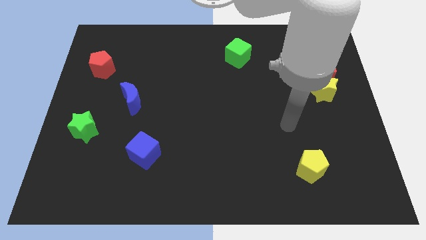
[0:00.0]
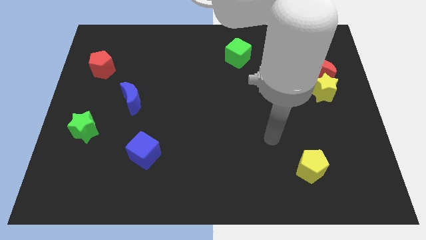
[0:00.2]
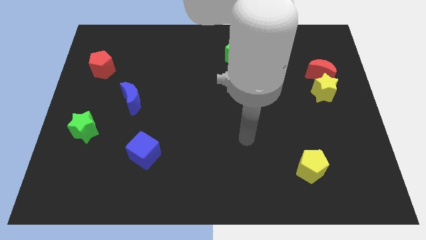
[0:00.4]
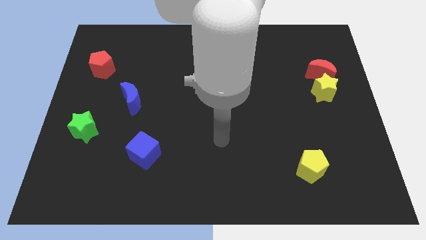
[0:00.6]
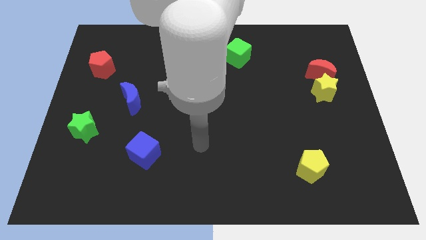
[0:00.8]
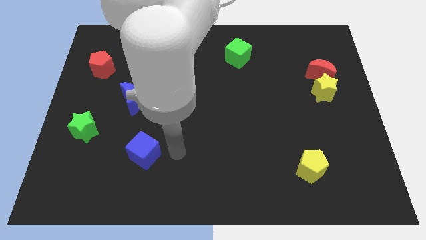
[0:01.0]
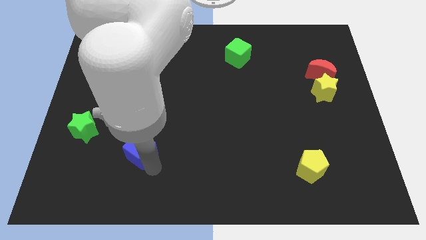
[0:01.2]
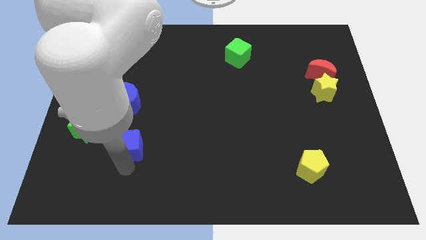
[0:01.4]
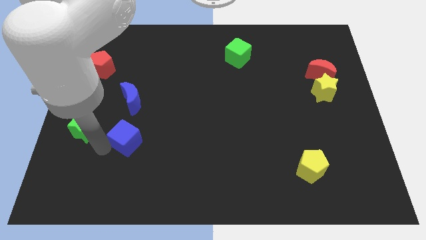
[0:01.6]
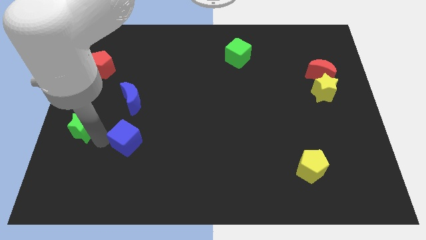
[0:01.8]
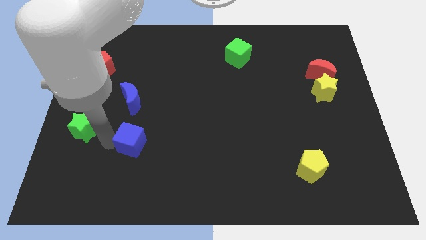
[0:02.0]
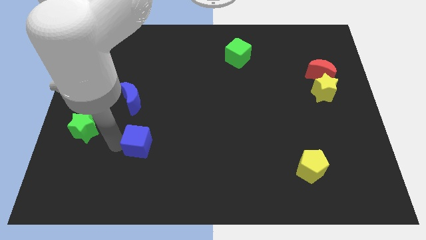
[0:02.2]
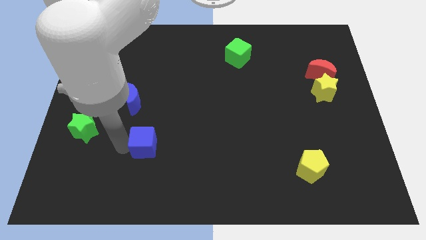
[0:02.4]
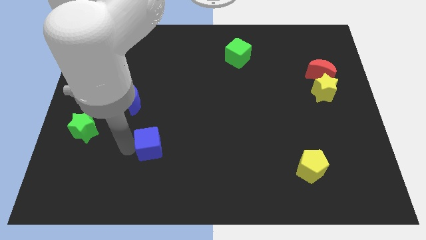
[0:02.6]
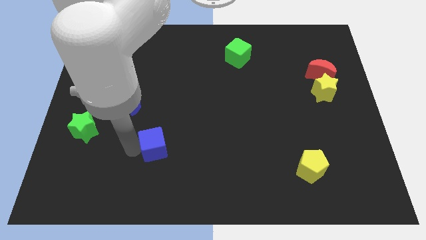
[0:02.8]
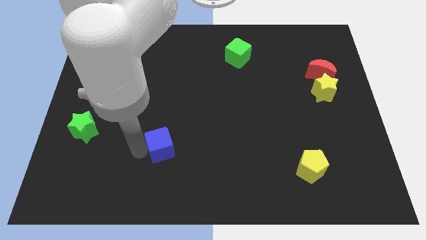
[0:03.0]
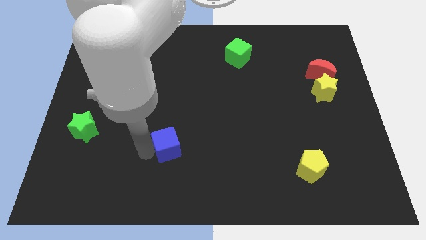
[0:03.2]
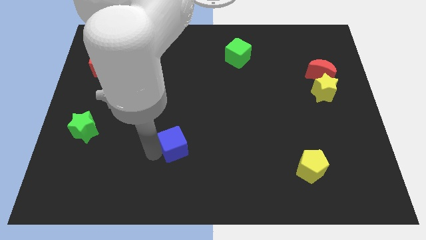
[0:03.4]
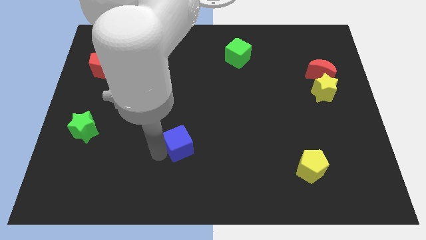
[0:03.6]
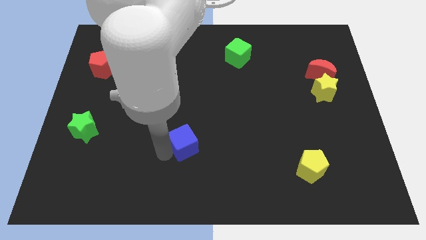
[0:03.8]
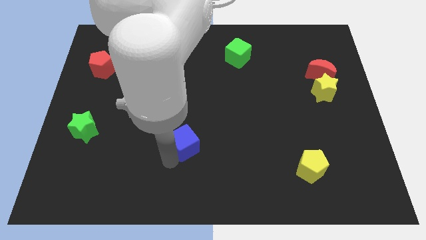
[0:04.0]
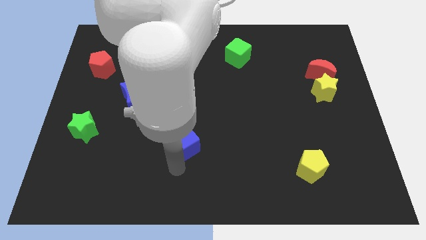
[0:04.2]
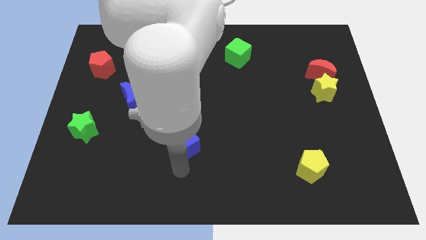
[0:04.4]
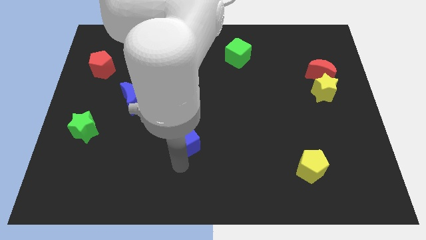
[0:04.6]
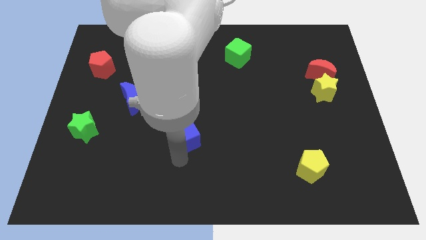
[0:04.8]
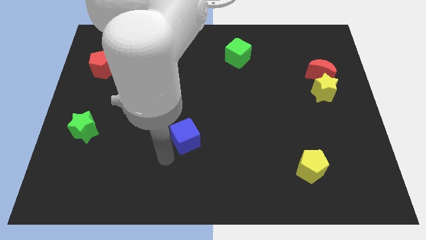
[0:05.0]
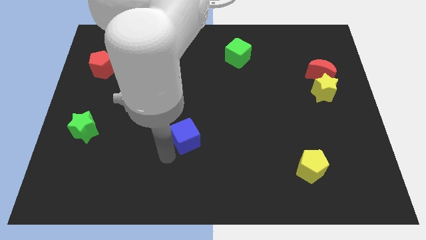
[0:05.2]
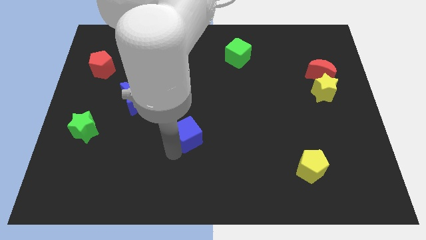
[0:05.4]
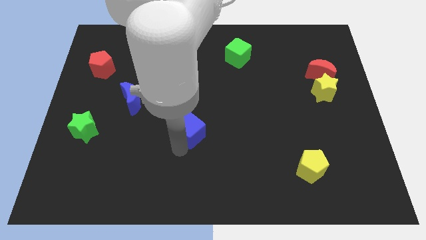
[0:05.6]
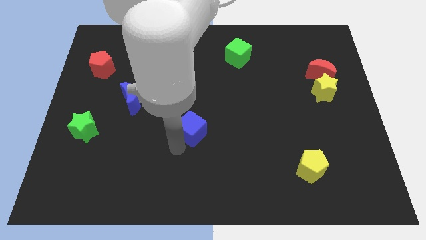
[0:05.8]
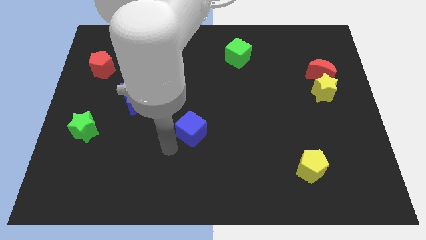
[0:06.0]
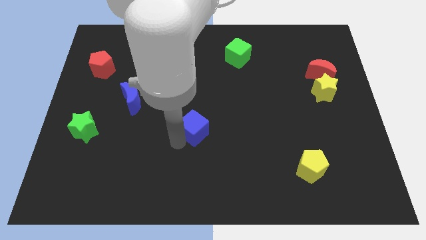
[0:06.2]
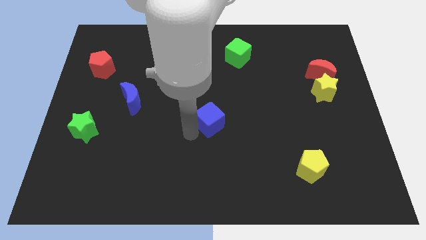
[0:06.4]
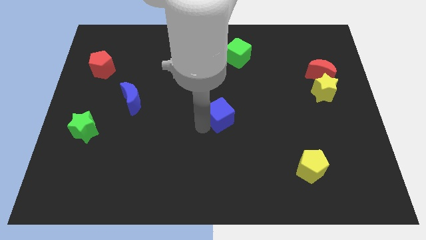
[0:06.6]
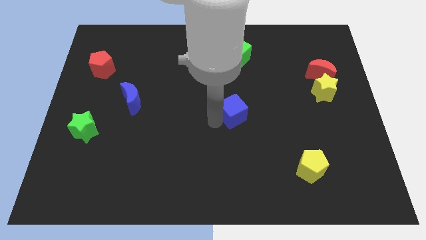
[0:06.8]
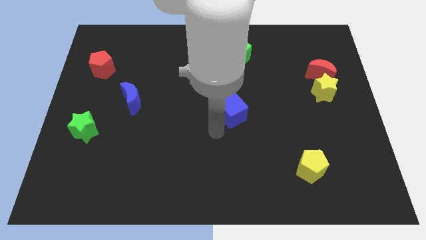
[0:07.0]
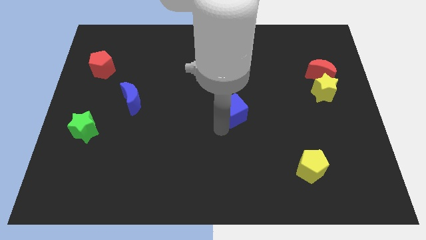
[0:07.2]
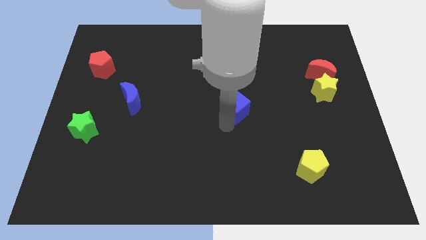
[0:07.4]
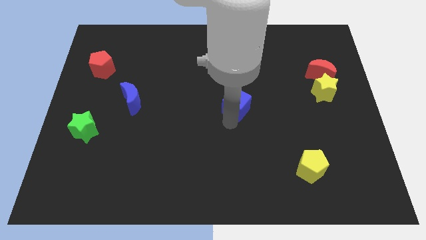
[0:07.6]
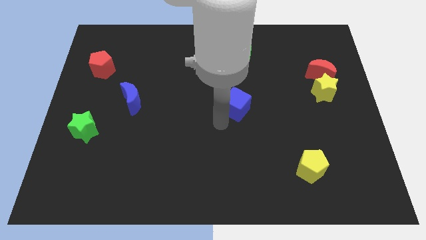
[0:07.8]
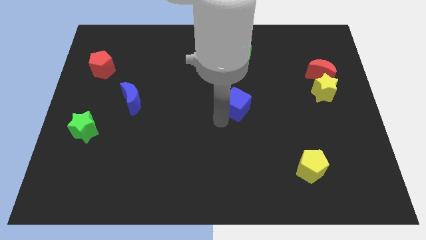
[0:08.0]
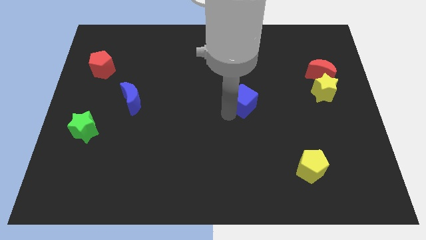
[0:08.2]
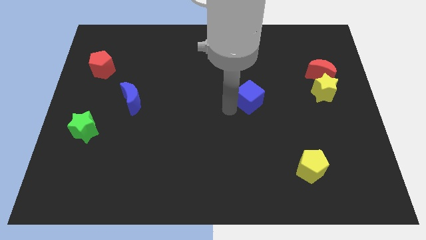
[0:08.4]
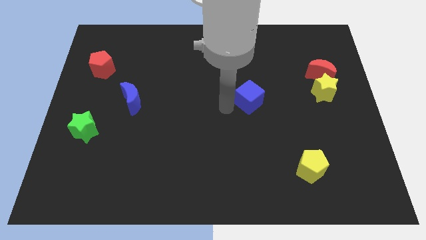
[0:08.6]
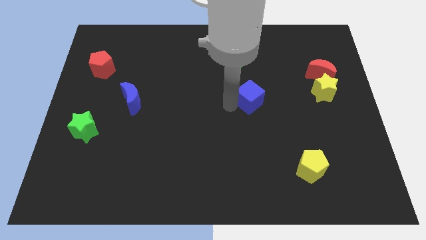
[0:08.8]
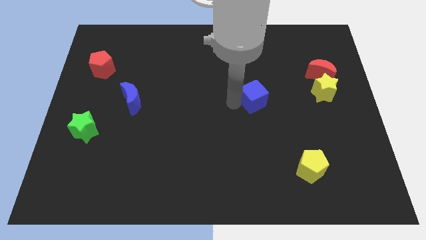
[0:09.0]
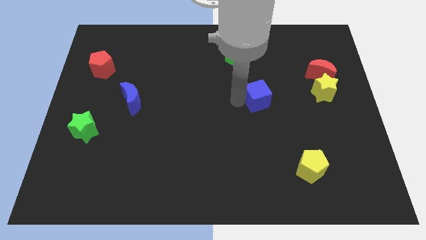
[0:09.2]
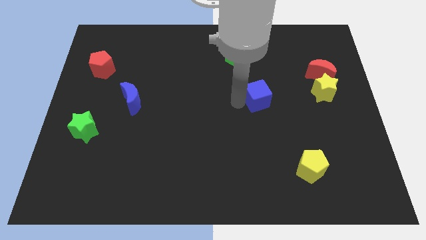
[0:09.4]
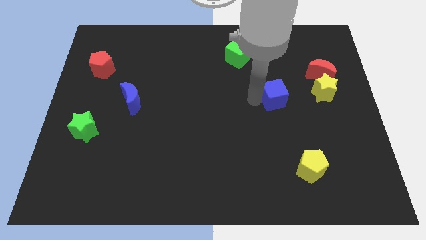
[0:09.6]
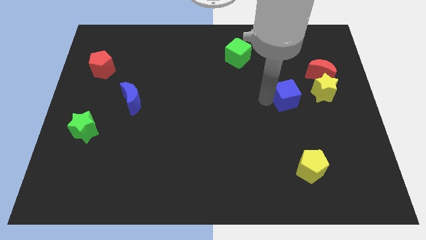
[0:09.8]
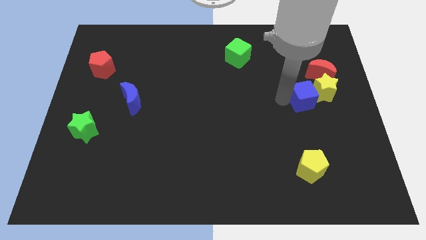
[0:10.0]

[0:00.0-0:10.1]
slide the blue cube next to the yellow star

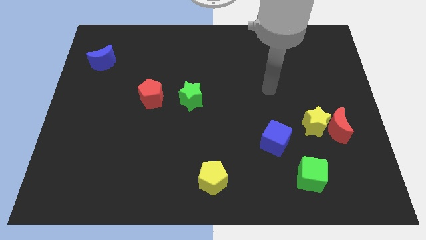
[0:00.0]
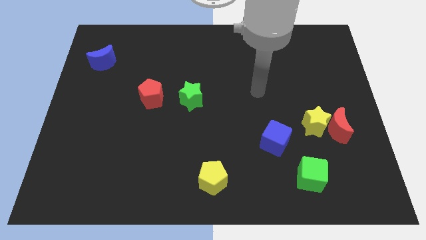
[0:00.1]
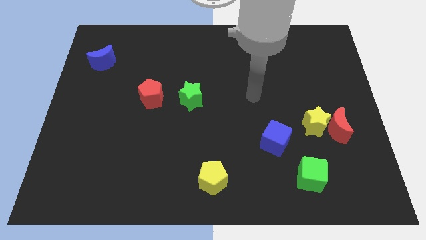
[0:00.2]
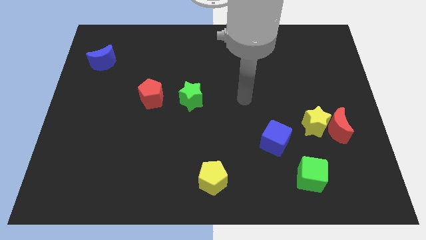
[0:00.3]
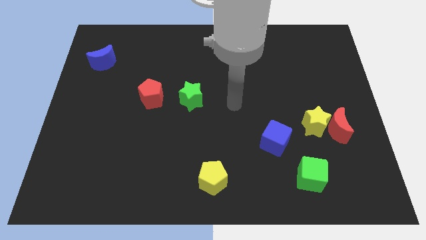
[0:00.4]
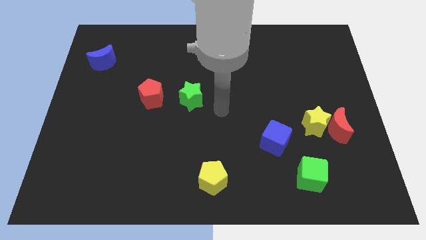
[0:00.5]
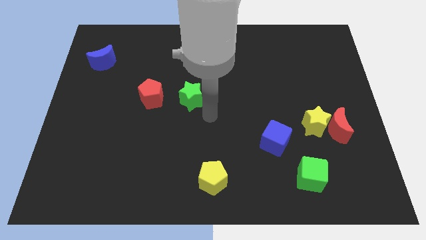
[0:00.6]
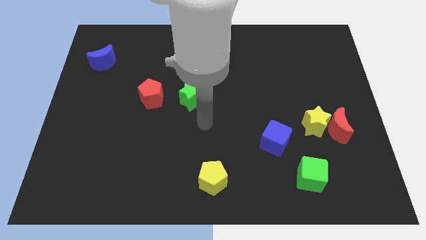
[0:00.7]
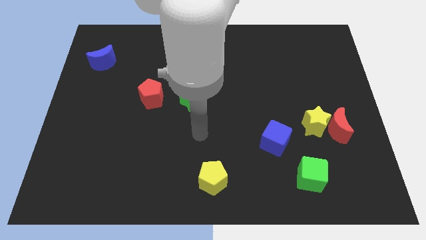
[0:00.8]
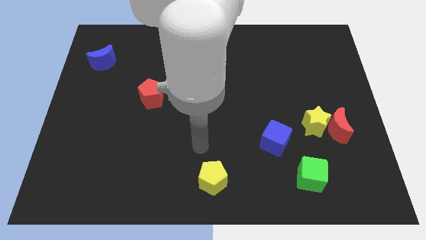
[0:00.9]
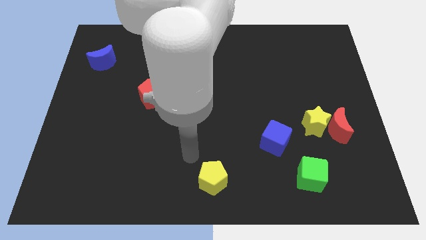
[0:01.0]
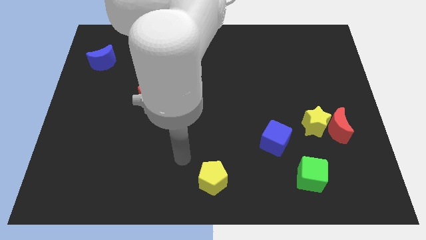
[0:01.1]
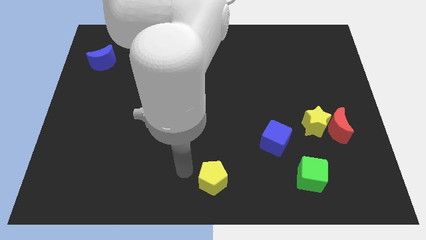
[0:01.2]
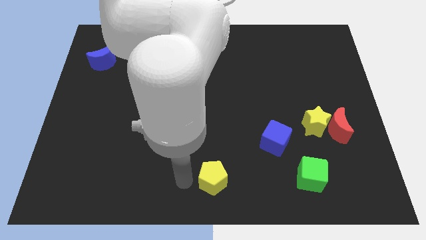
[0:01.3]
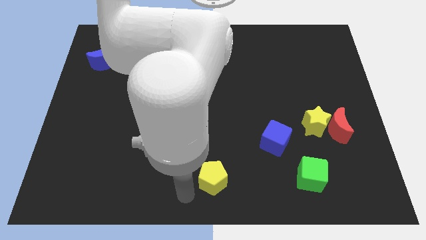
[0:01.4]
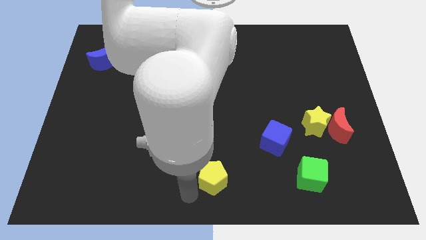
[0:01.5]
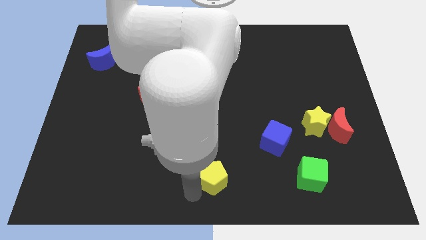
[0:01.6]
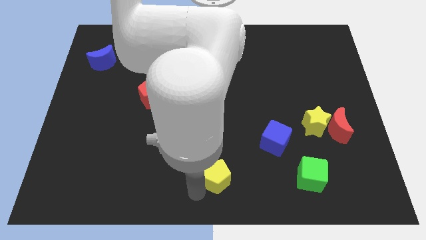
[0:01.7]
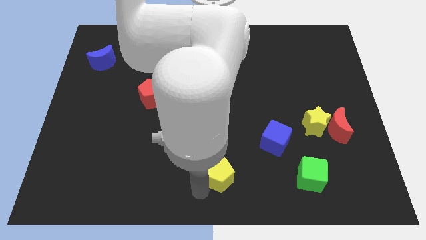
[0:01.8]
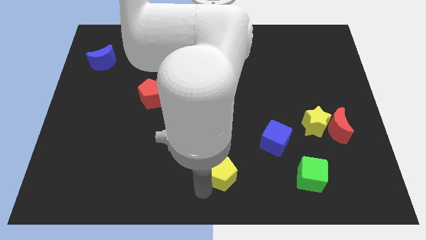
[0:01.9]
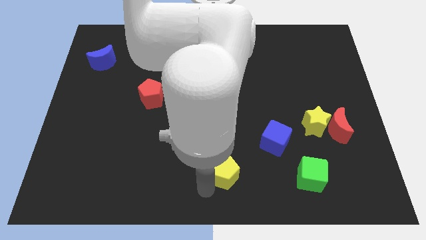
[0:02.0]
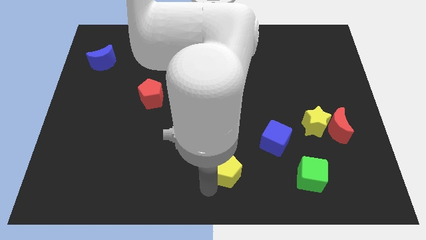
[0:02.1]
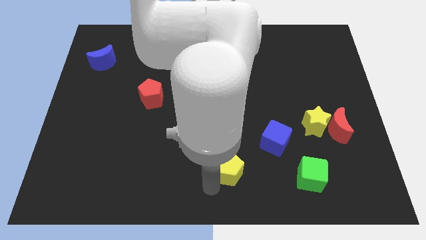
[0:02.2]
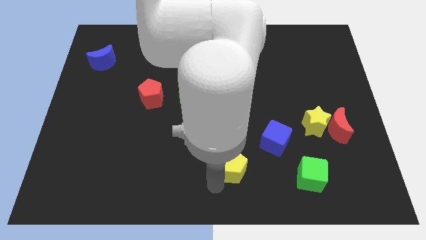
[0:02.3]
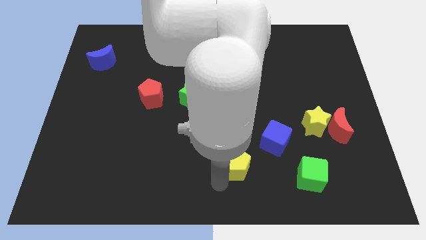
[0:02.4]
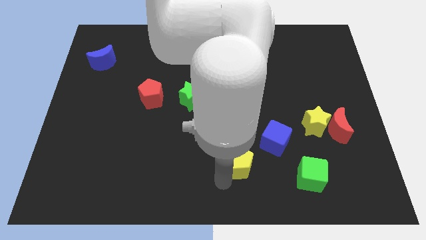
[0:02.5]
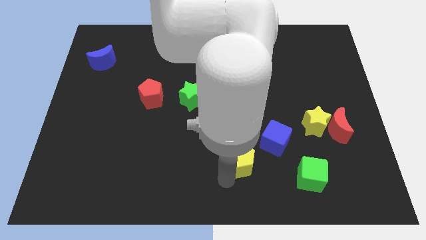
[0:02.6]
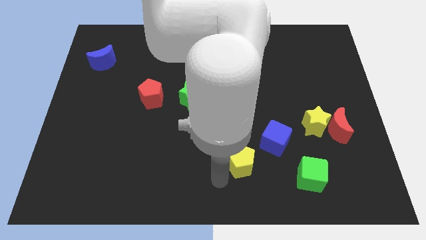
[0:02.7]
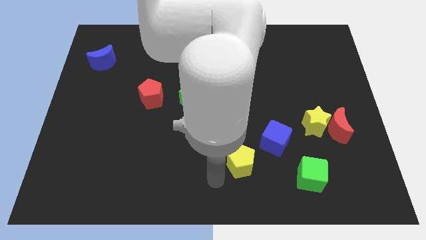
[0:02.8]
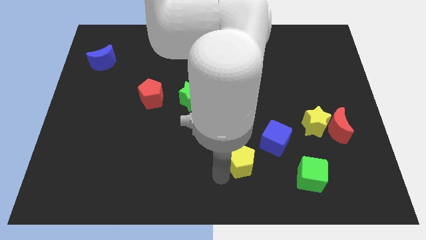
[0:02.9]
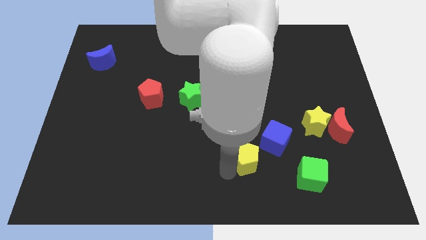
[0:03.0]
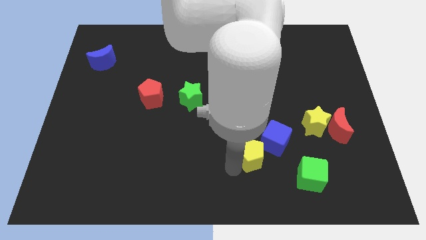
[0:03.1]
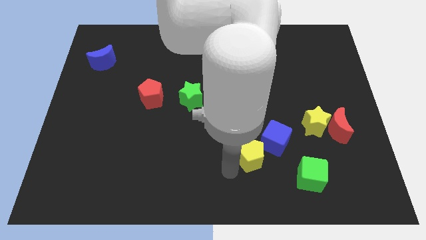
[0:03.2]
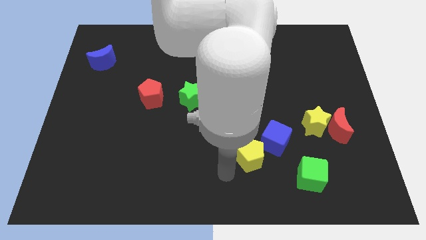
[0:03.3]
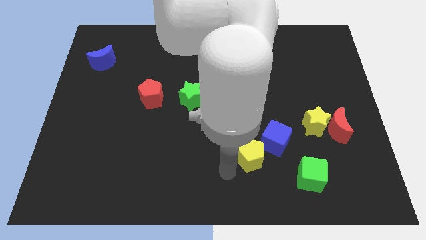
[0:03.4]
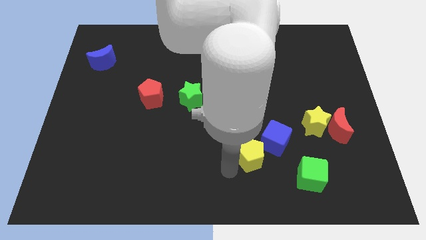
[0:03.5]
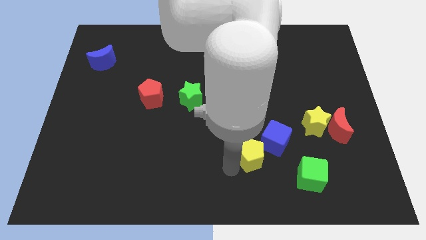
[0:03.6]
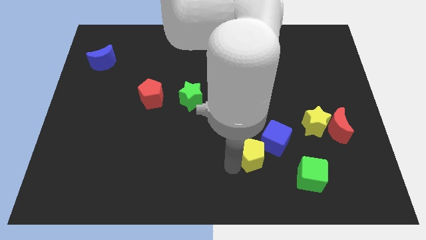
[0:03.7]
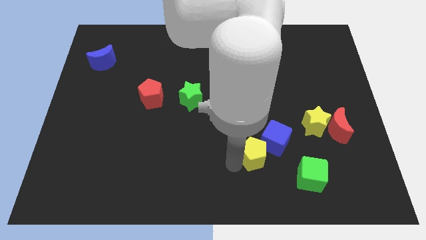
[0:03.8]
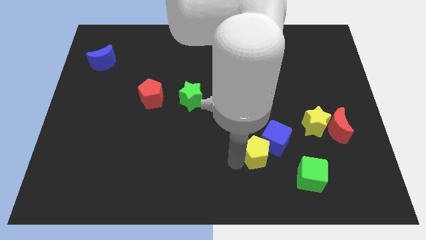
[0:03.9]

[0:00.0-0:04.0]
push the yellow pentagon towards the blue cube
